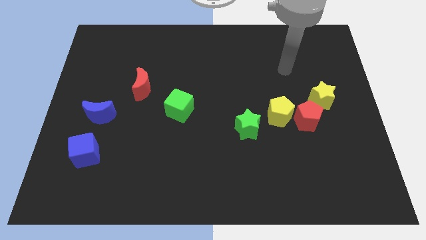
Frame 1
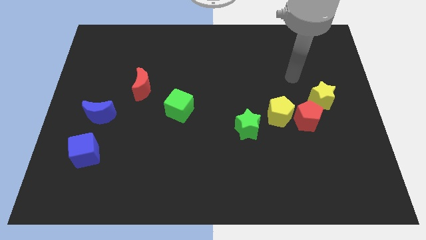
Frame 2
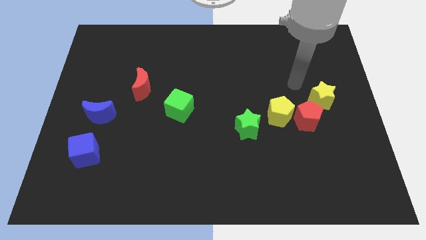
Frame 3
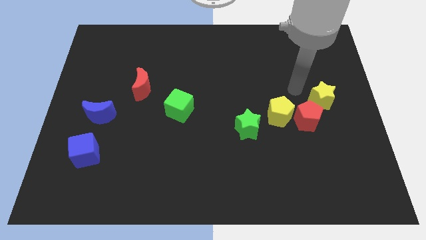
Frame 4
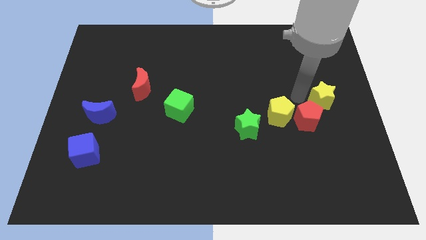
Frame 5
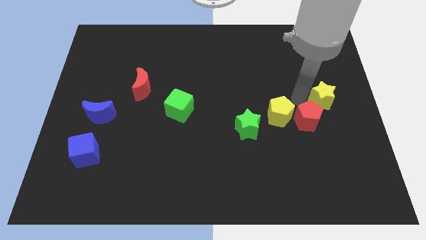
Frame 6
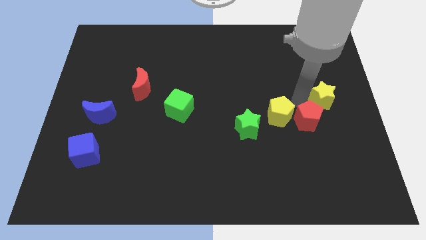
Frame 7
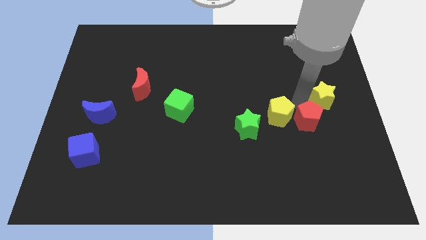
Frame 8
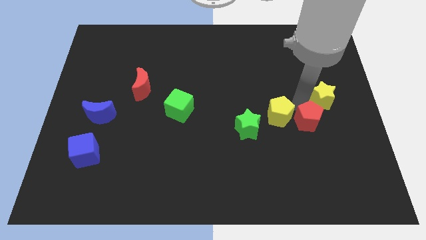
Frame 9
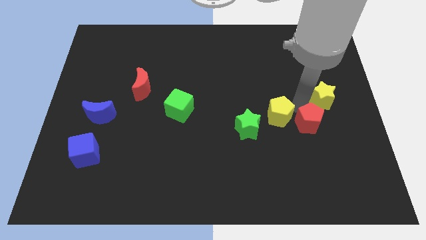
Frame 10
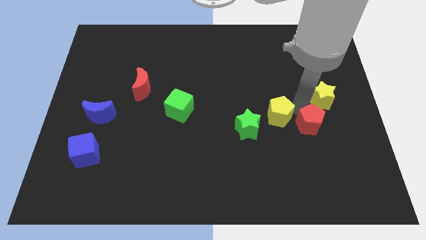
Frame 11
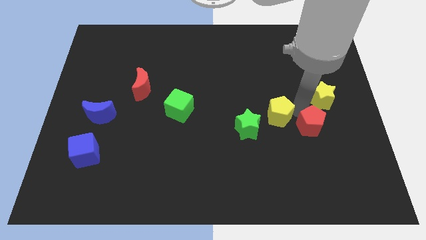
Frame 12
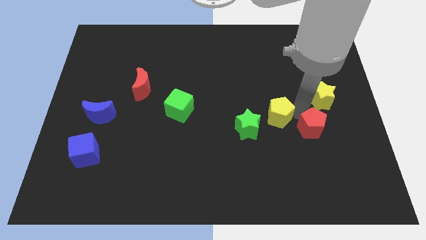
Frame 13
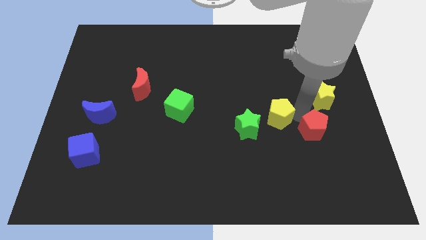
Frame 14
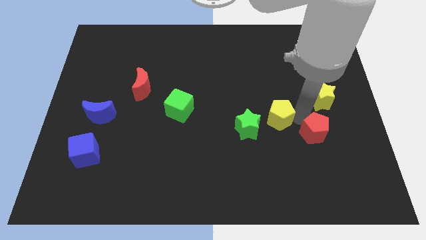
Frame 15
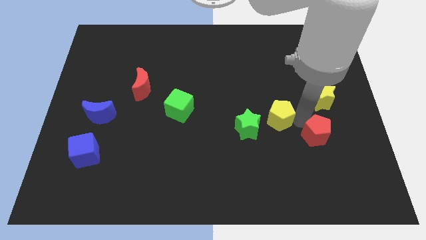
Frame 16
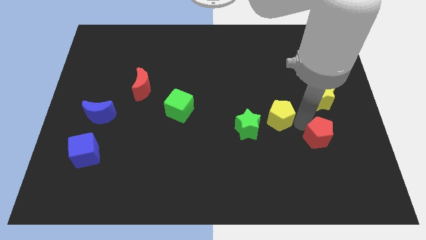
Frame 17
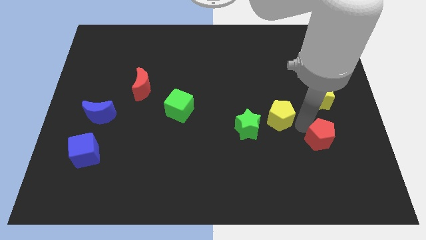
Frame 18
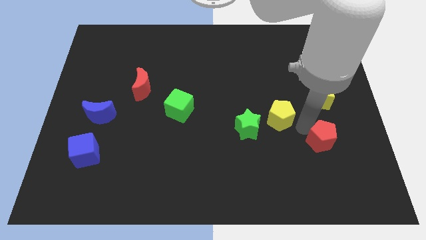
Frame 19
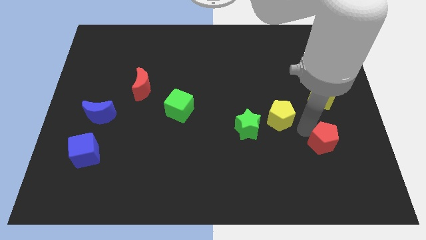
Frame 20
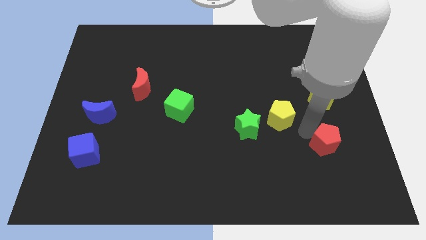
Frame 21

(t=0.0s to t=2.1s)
pull the red pentagon apart from the yellow pentagon and yellow star

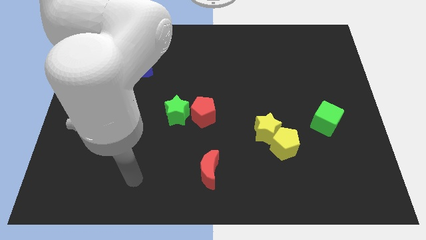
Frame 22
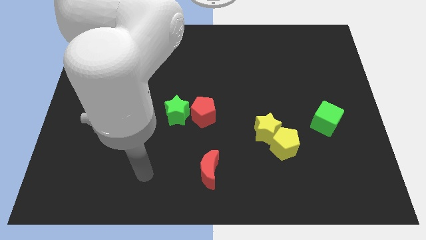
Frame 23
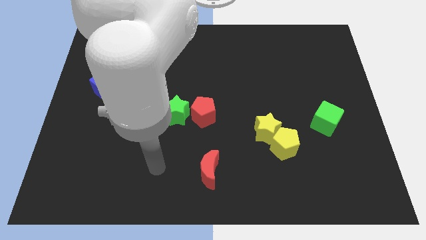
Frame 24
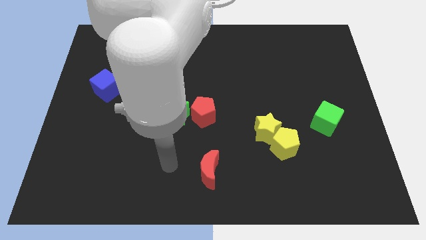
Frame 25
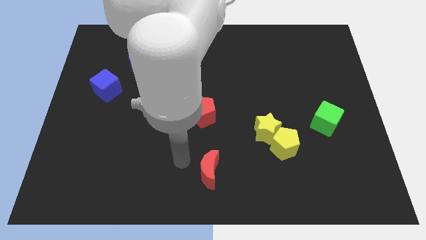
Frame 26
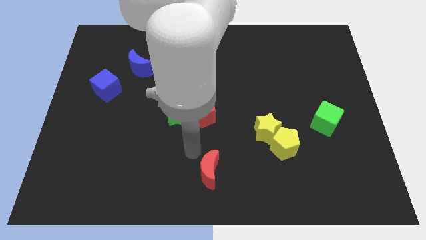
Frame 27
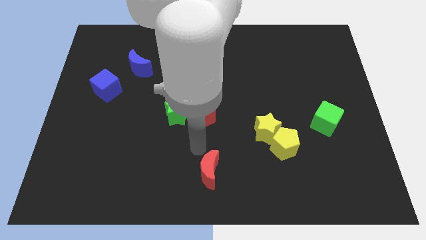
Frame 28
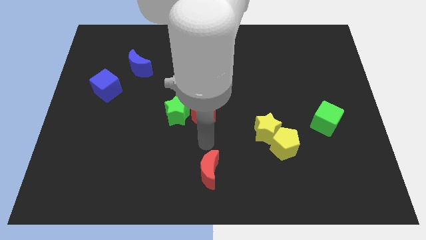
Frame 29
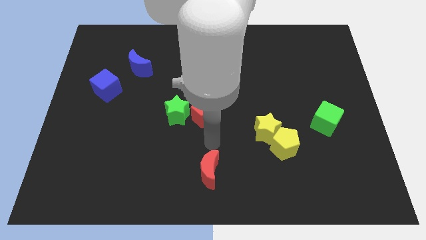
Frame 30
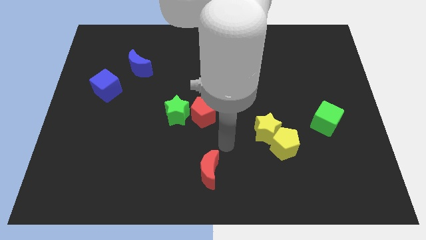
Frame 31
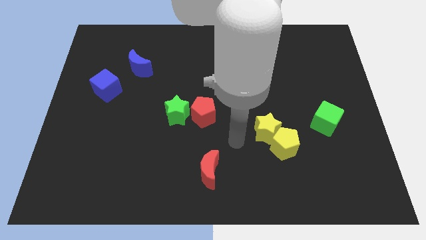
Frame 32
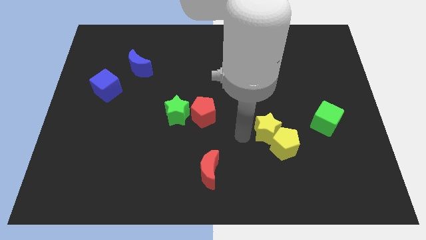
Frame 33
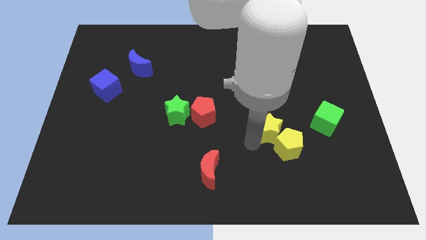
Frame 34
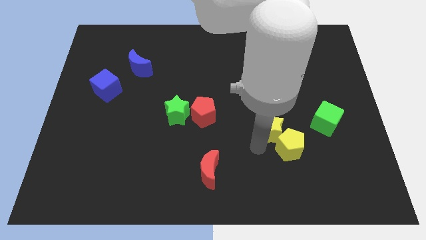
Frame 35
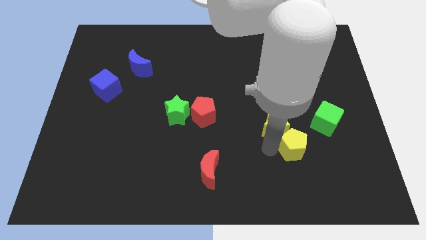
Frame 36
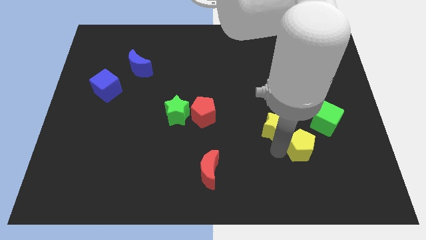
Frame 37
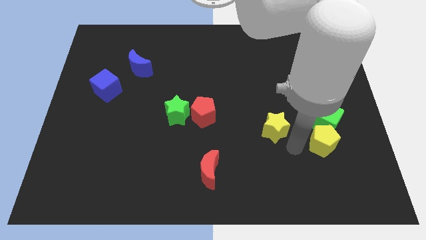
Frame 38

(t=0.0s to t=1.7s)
pull the yellow star apart from the yellow pentagon

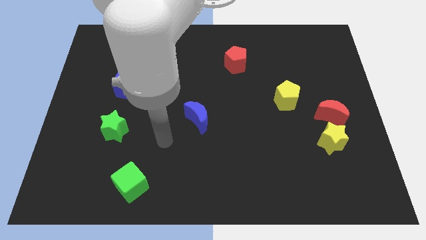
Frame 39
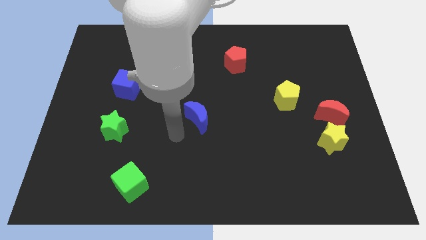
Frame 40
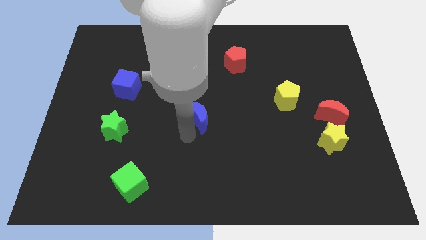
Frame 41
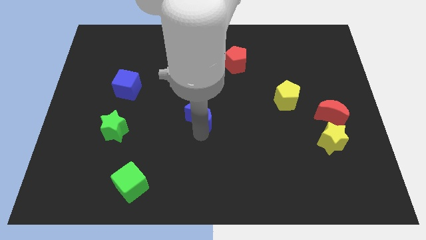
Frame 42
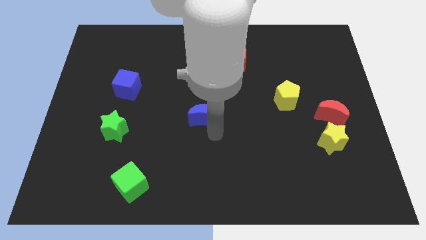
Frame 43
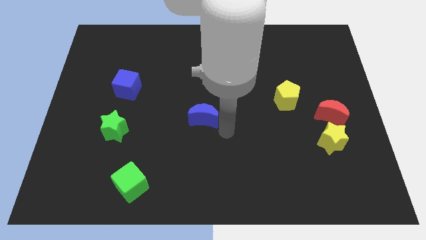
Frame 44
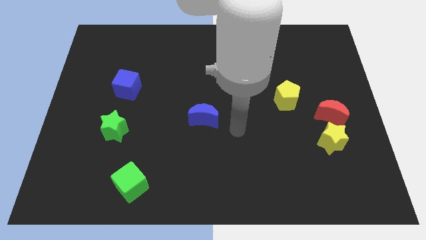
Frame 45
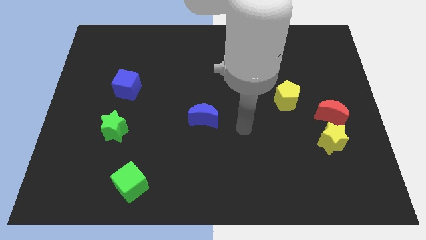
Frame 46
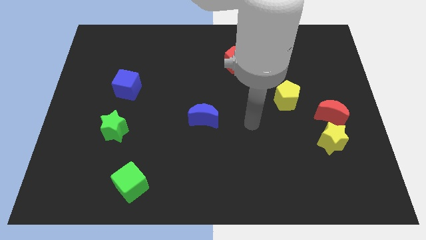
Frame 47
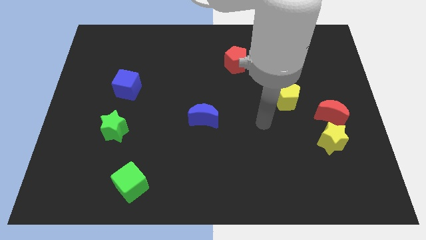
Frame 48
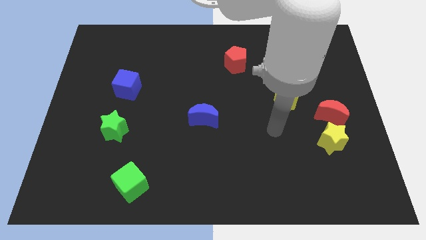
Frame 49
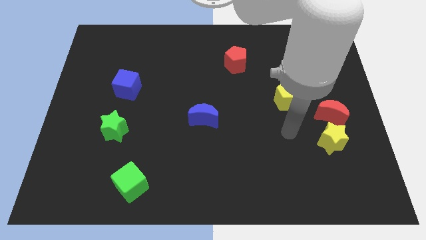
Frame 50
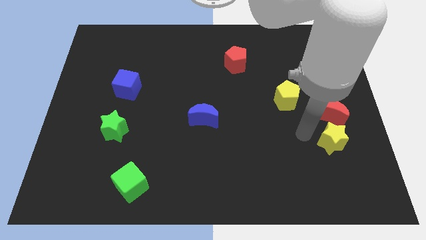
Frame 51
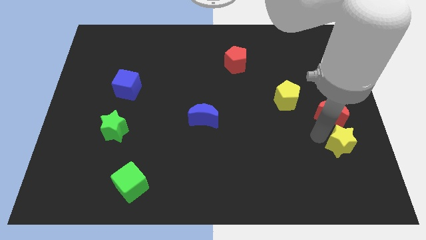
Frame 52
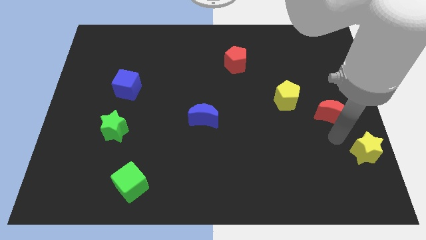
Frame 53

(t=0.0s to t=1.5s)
move the red moon away from the yellow star

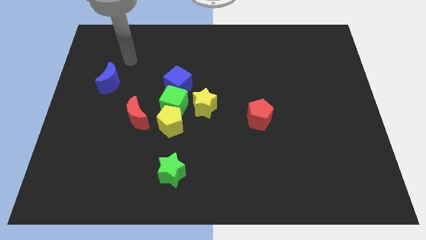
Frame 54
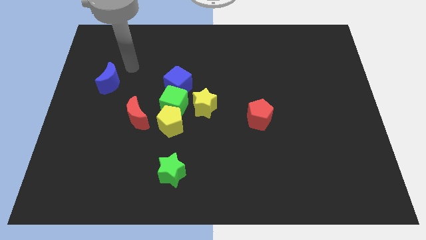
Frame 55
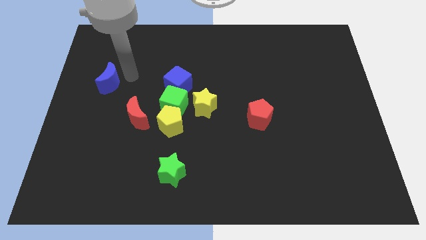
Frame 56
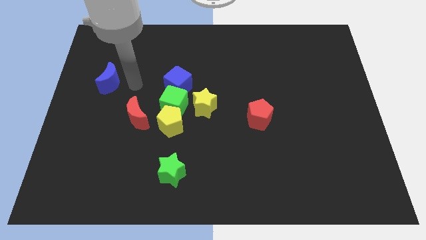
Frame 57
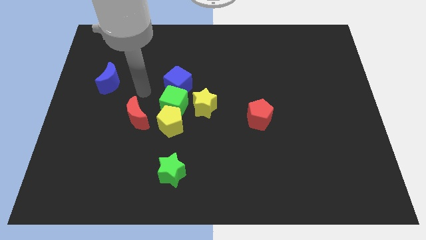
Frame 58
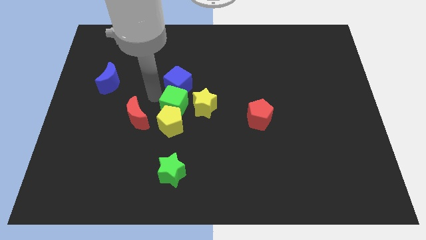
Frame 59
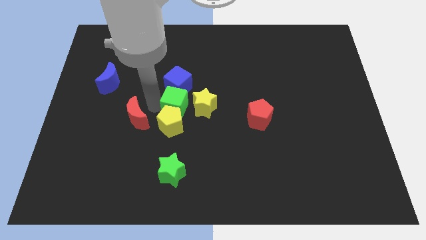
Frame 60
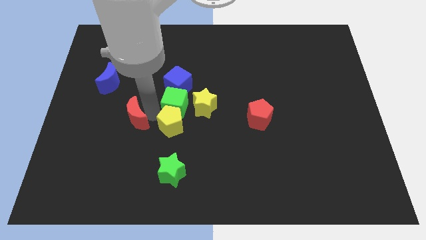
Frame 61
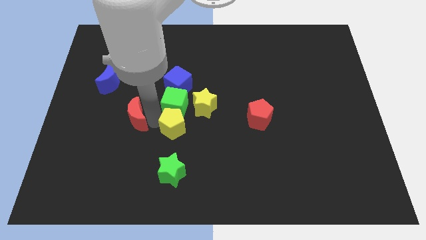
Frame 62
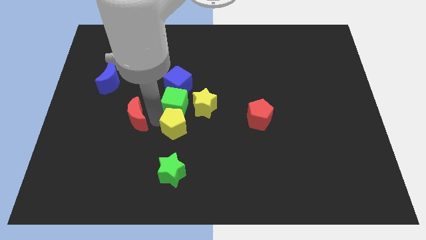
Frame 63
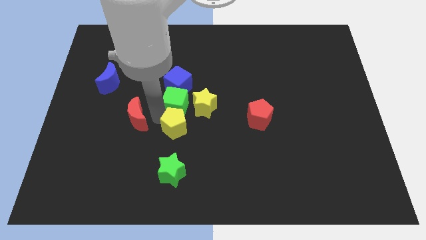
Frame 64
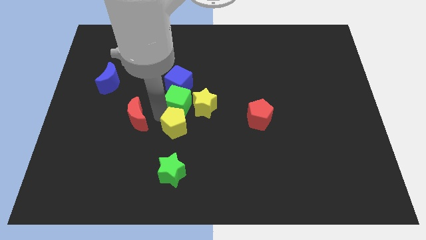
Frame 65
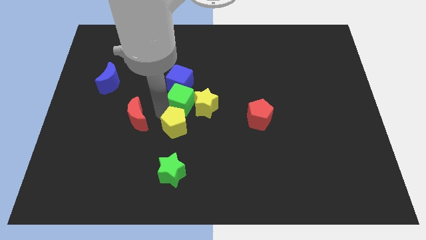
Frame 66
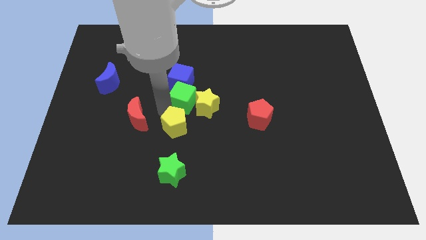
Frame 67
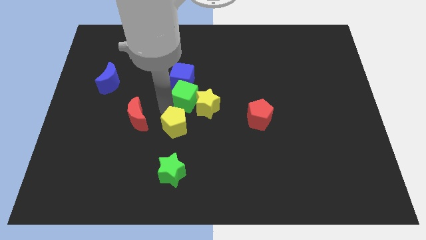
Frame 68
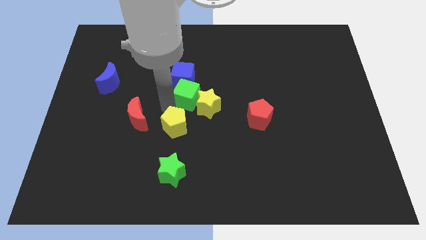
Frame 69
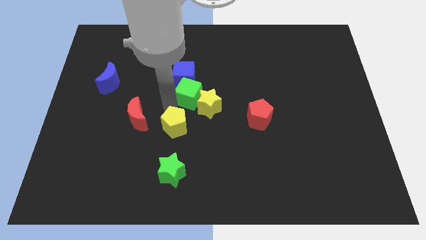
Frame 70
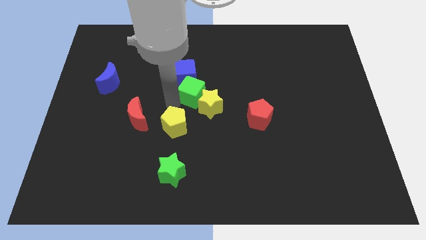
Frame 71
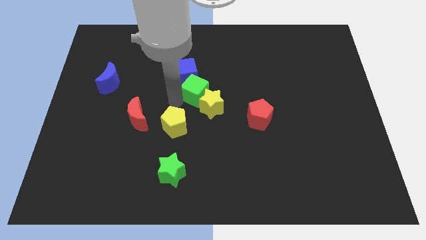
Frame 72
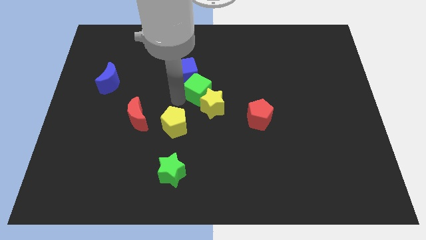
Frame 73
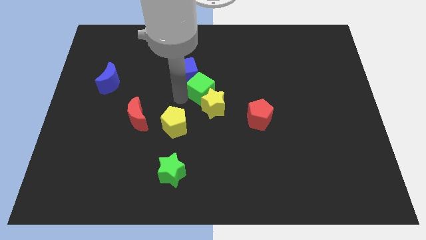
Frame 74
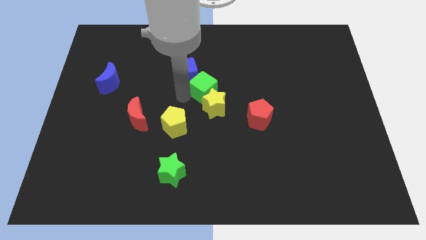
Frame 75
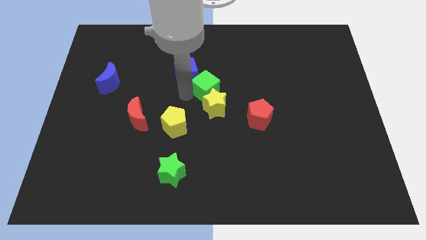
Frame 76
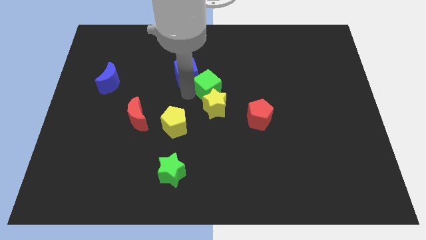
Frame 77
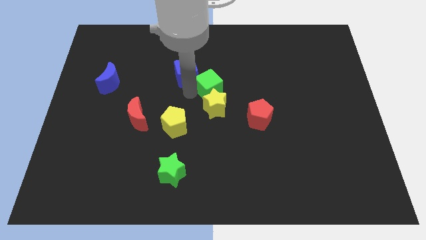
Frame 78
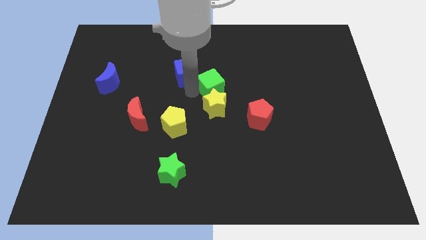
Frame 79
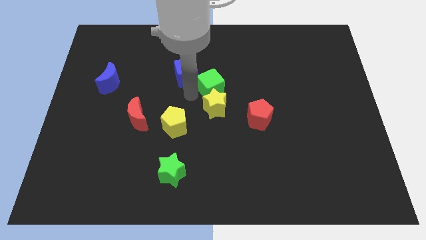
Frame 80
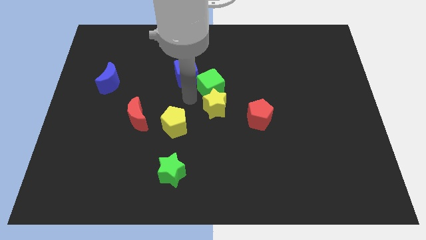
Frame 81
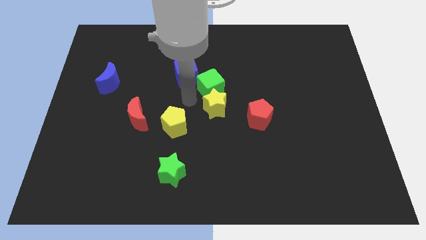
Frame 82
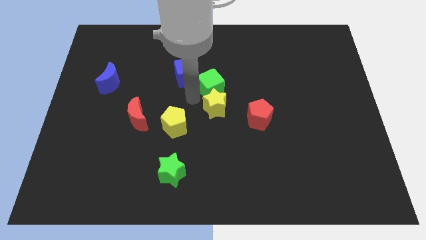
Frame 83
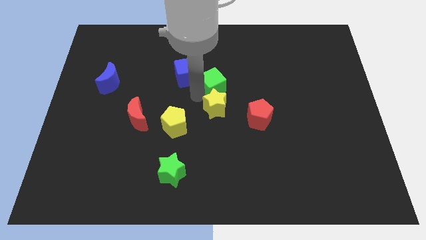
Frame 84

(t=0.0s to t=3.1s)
move the green cube away from the group of blocks

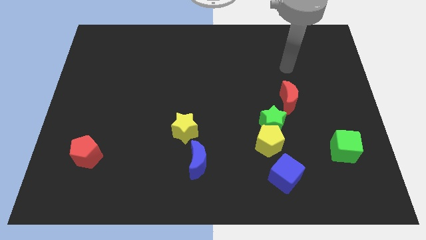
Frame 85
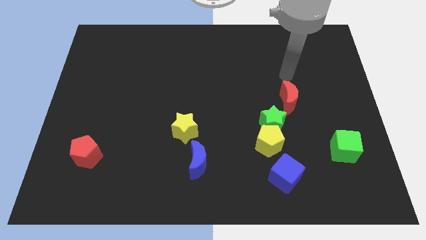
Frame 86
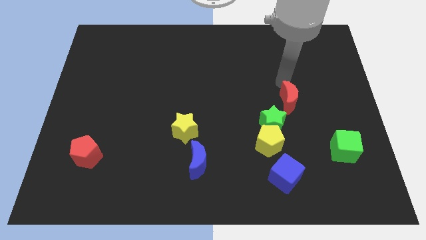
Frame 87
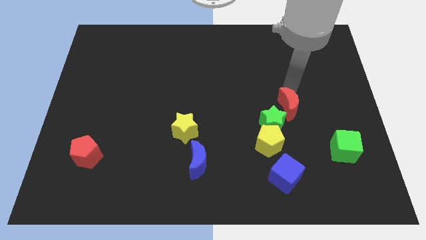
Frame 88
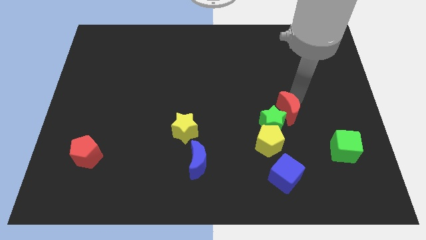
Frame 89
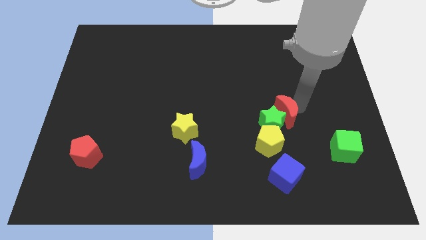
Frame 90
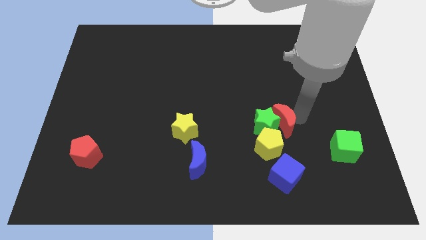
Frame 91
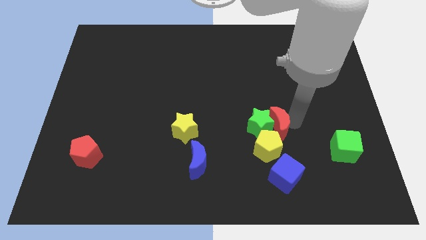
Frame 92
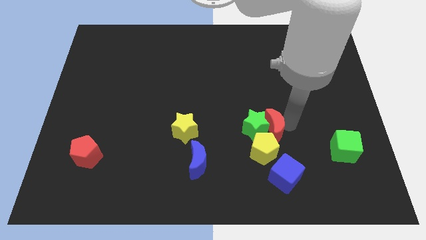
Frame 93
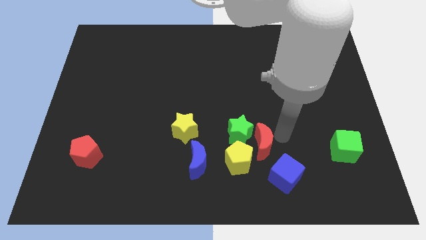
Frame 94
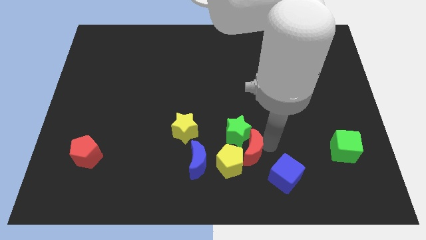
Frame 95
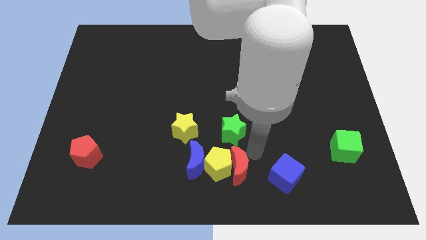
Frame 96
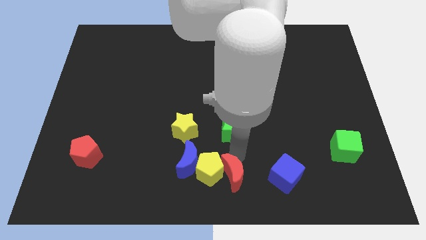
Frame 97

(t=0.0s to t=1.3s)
separate the green star from the yellow pentagon and red moon
